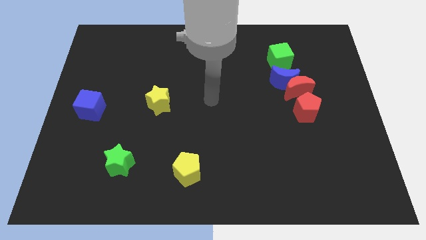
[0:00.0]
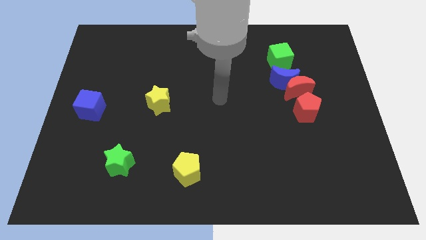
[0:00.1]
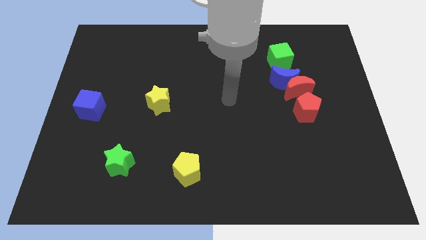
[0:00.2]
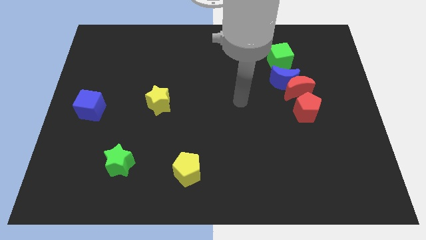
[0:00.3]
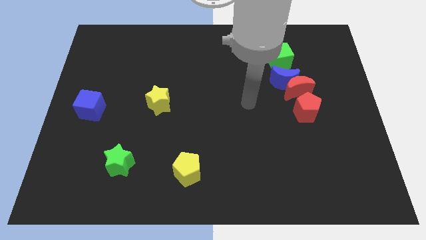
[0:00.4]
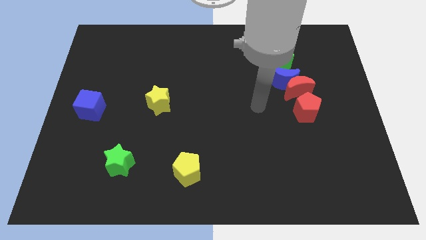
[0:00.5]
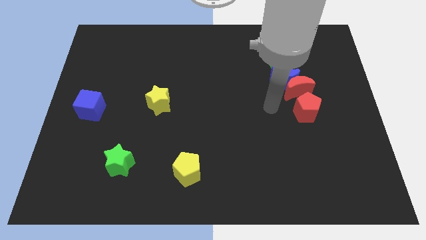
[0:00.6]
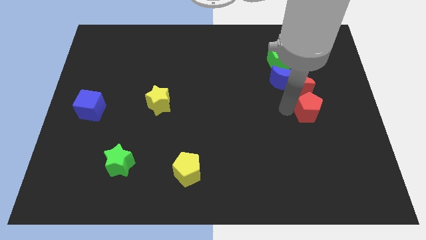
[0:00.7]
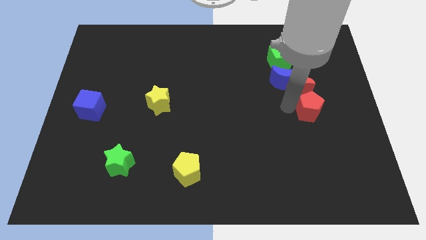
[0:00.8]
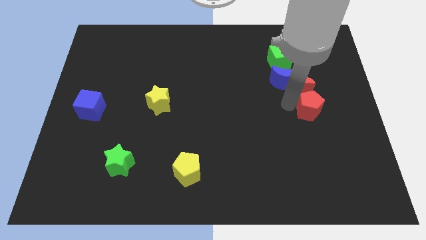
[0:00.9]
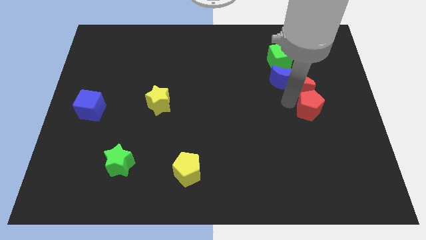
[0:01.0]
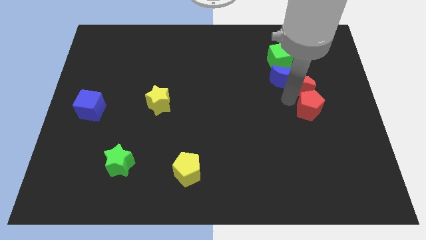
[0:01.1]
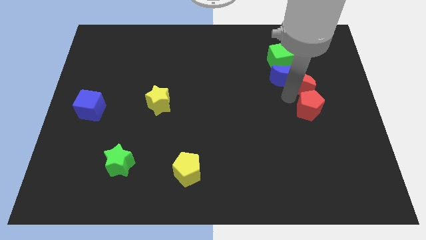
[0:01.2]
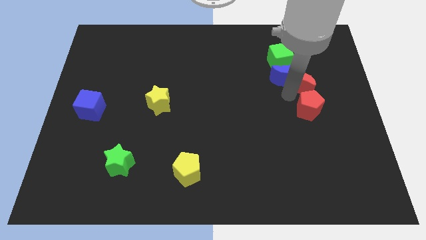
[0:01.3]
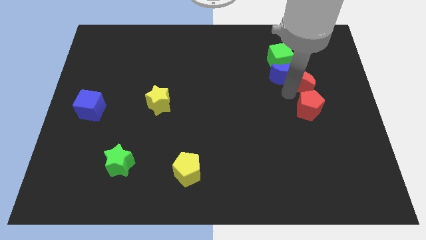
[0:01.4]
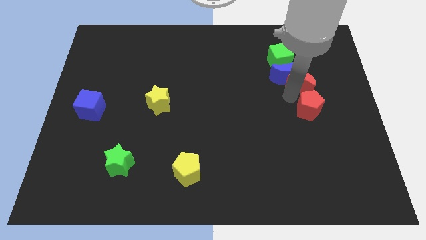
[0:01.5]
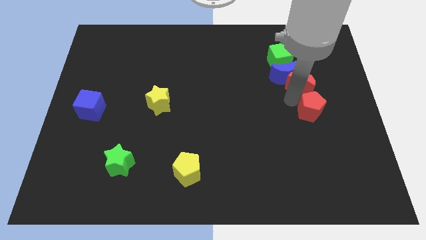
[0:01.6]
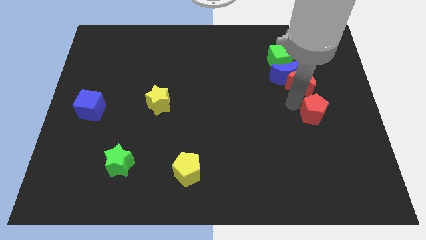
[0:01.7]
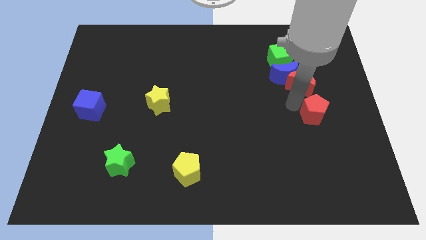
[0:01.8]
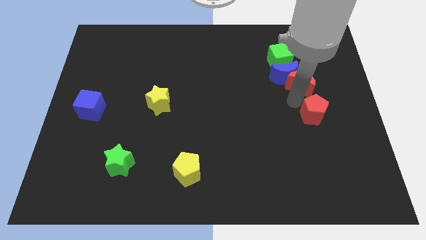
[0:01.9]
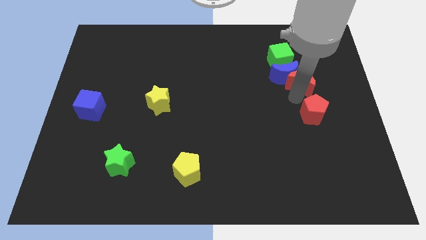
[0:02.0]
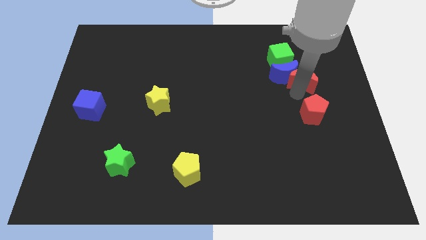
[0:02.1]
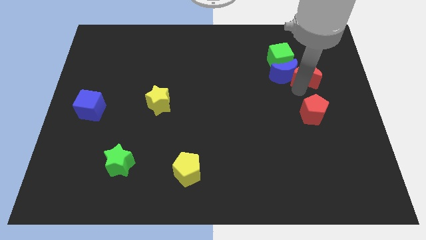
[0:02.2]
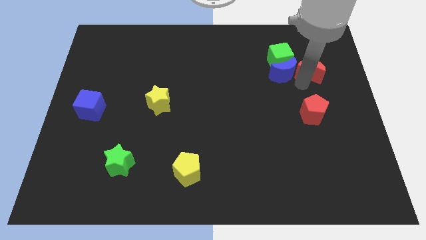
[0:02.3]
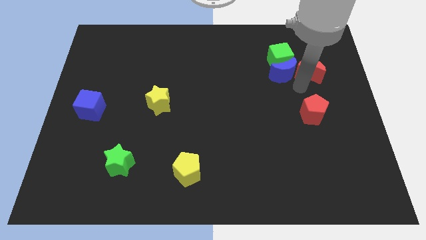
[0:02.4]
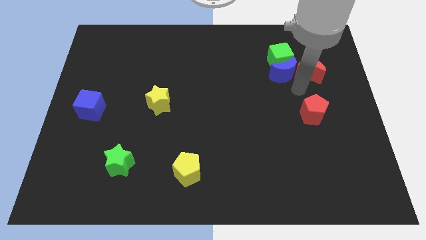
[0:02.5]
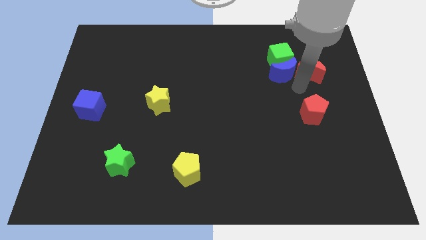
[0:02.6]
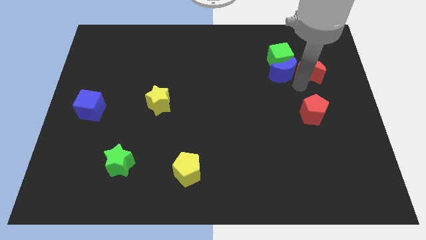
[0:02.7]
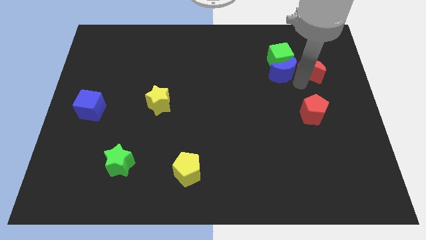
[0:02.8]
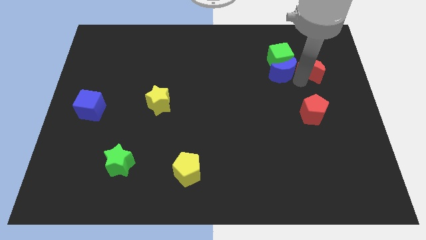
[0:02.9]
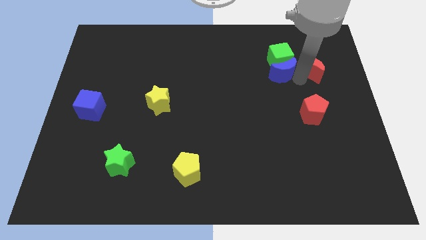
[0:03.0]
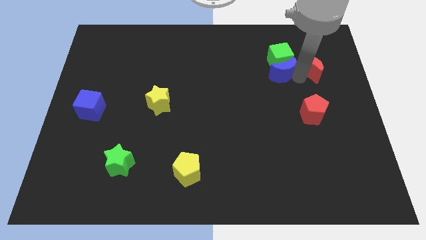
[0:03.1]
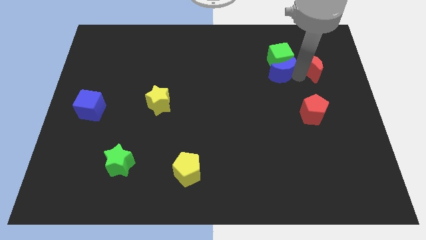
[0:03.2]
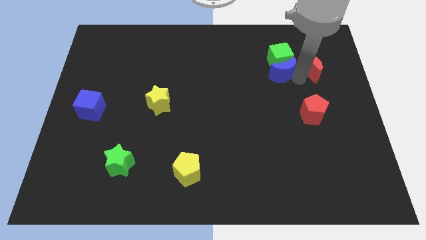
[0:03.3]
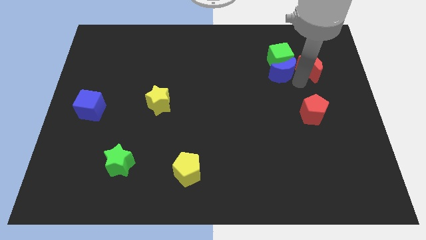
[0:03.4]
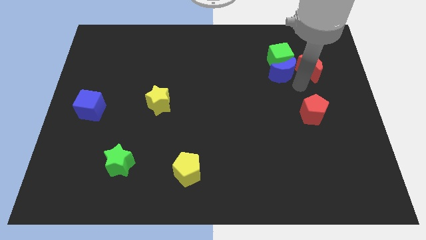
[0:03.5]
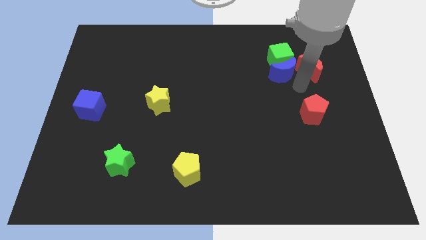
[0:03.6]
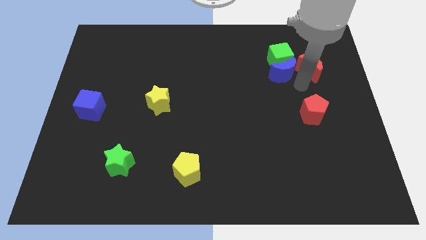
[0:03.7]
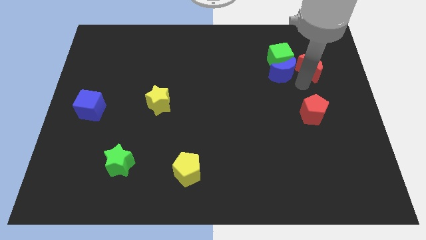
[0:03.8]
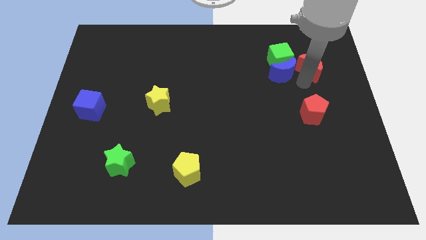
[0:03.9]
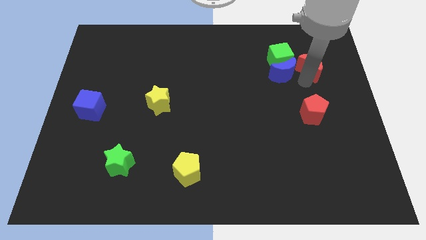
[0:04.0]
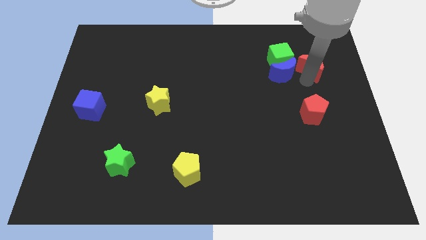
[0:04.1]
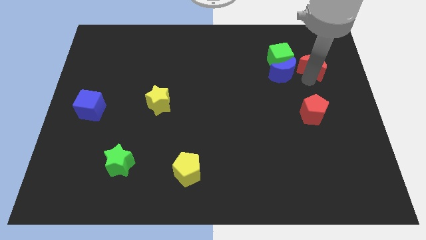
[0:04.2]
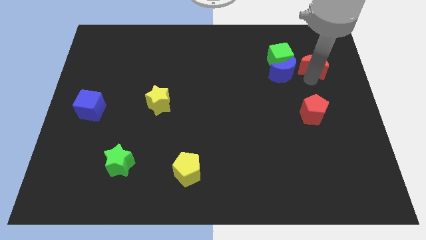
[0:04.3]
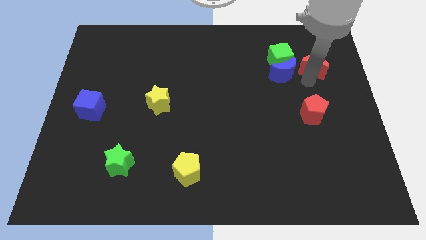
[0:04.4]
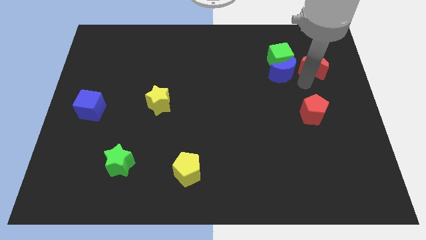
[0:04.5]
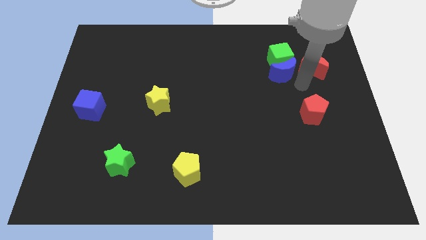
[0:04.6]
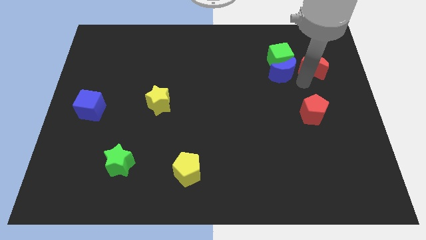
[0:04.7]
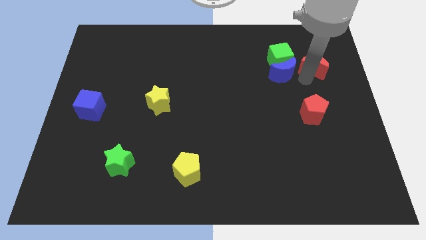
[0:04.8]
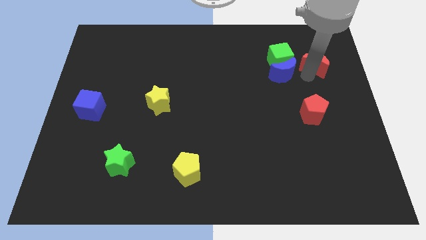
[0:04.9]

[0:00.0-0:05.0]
separate the red moon from the blue moon and red pentagon

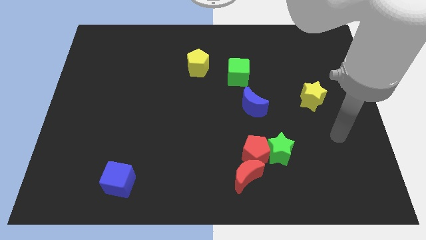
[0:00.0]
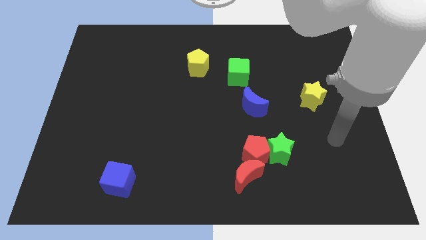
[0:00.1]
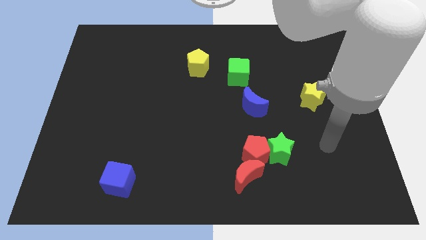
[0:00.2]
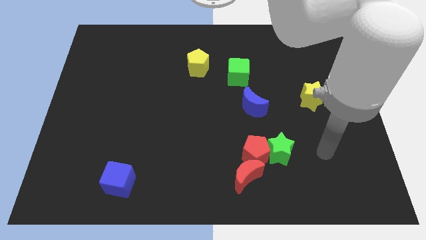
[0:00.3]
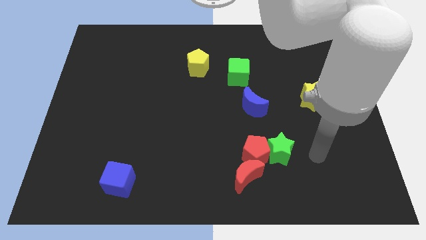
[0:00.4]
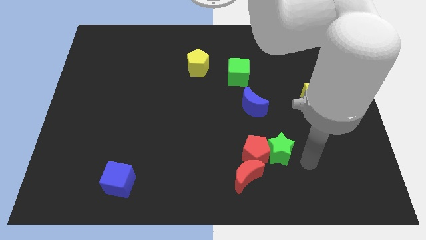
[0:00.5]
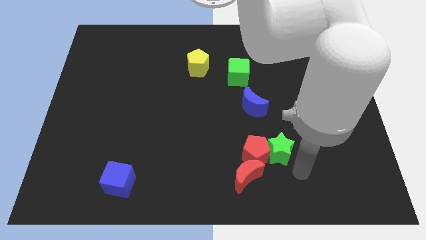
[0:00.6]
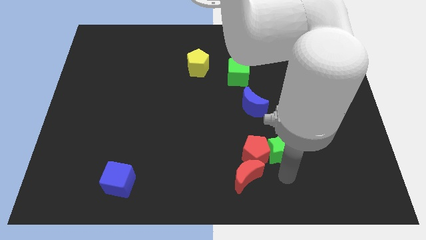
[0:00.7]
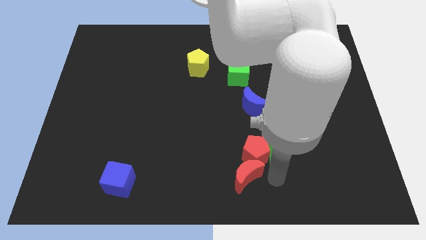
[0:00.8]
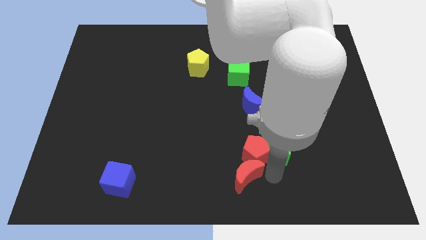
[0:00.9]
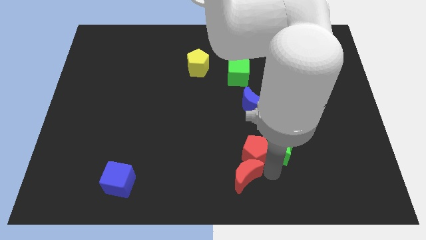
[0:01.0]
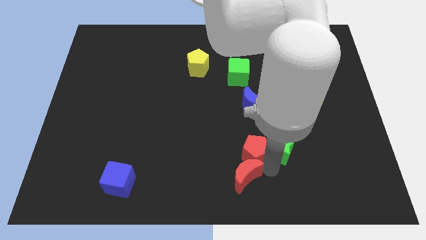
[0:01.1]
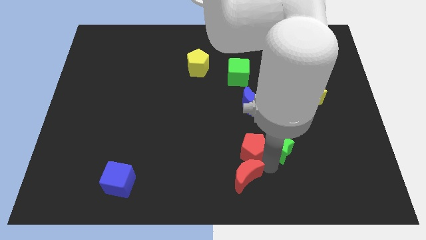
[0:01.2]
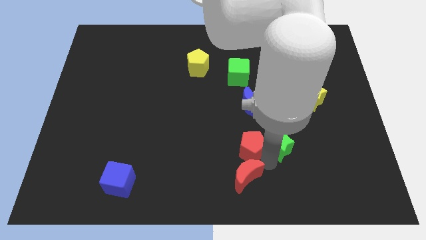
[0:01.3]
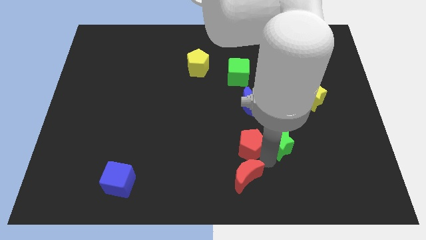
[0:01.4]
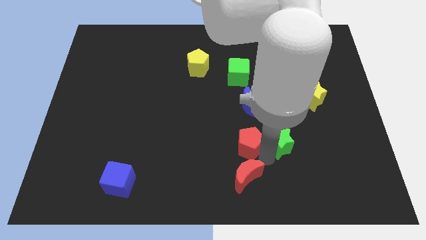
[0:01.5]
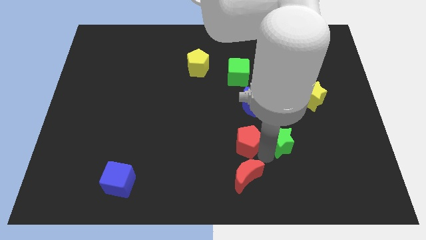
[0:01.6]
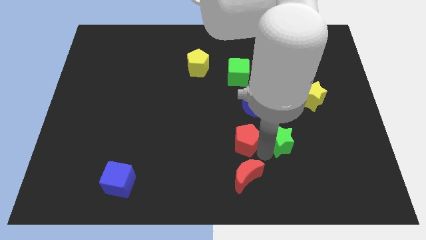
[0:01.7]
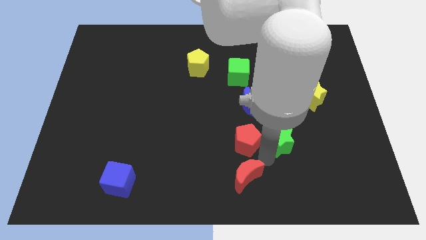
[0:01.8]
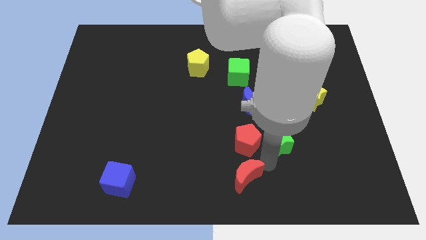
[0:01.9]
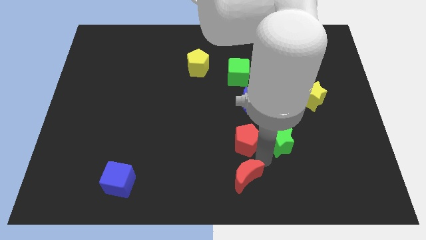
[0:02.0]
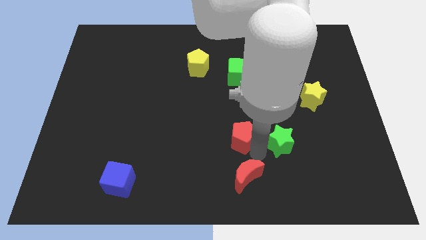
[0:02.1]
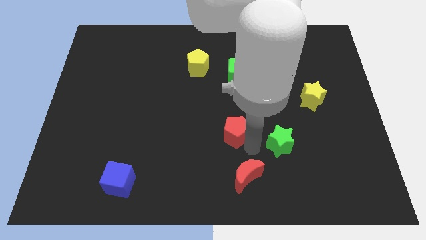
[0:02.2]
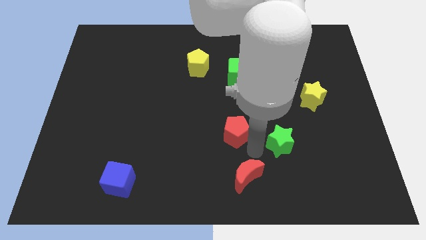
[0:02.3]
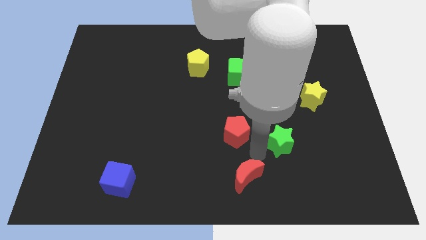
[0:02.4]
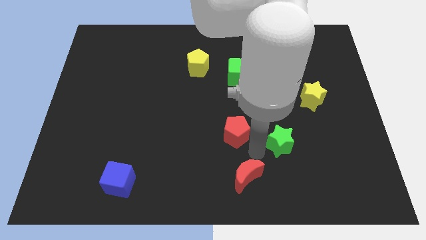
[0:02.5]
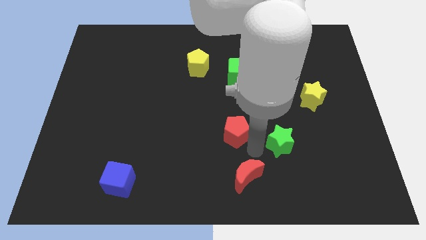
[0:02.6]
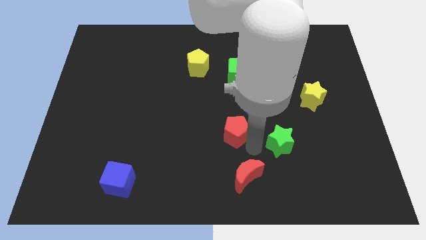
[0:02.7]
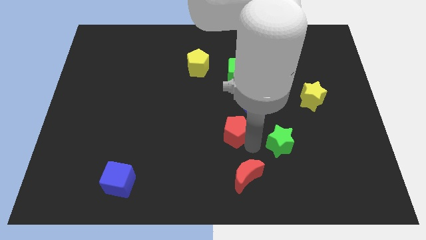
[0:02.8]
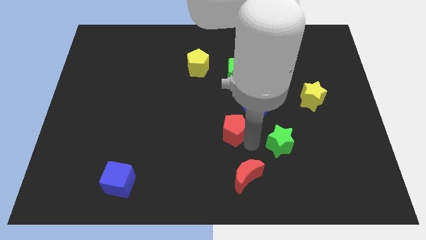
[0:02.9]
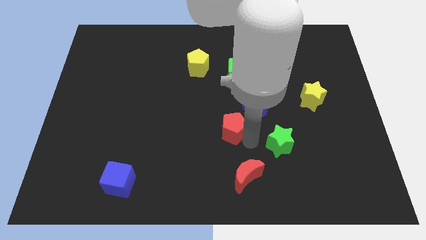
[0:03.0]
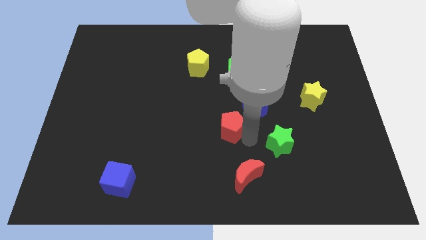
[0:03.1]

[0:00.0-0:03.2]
move the red pentagon away from the green star and red moon

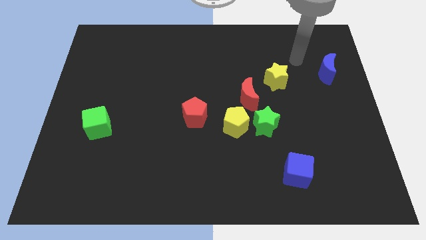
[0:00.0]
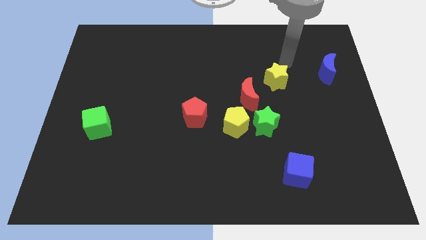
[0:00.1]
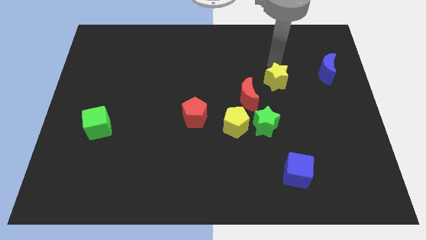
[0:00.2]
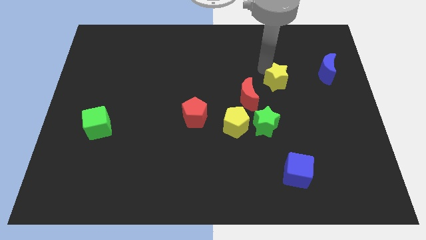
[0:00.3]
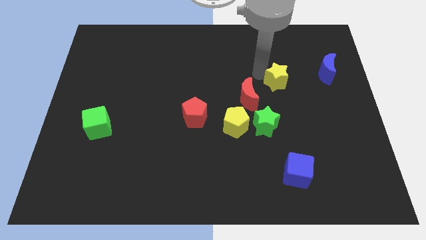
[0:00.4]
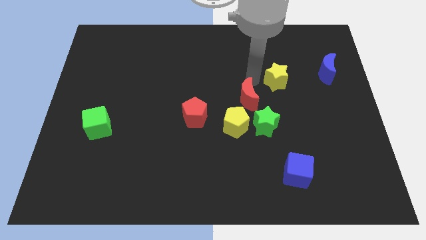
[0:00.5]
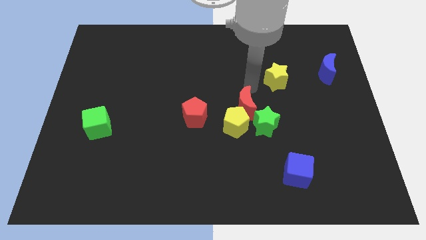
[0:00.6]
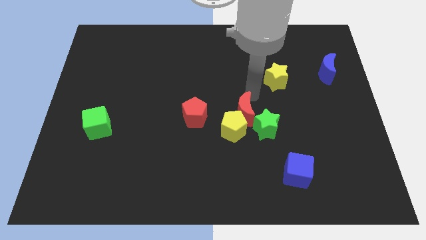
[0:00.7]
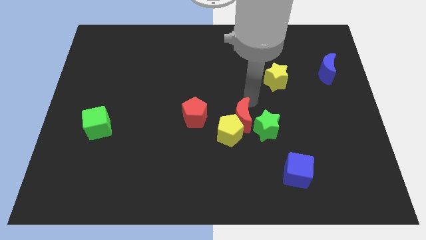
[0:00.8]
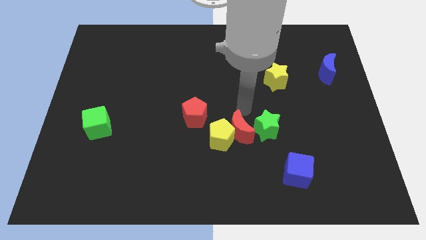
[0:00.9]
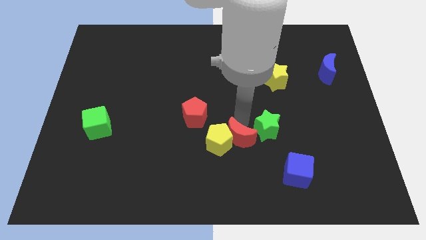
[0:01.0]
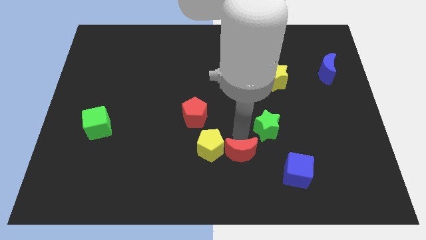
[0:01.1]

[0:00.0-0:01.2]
move the green star away from the yellow pentagon and red moon
